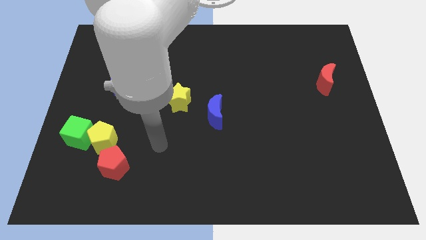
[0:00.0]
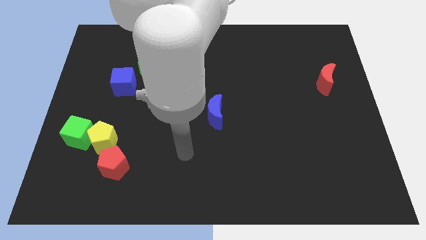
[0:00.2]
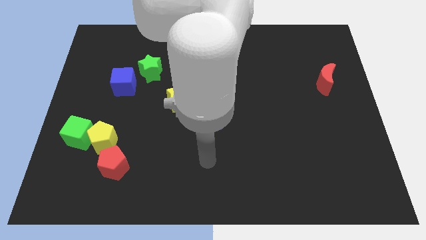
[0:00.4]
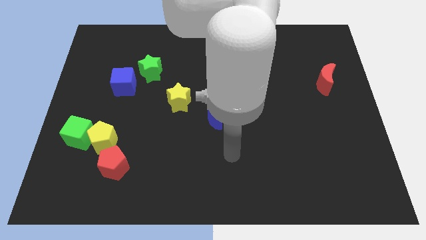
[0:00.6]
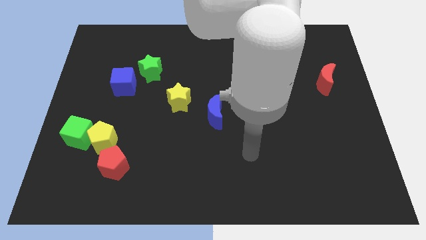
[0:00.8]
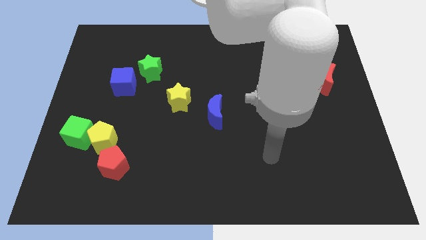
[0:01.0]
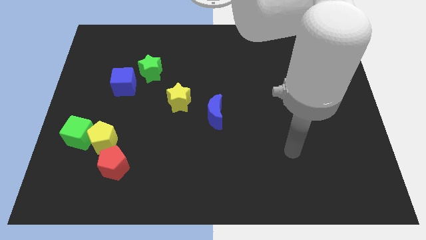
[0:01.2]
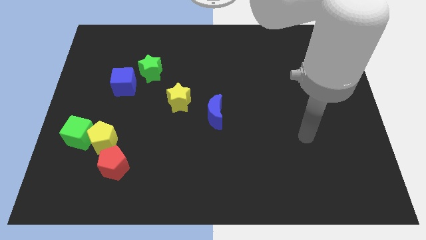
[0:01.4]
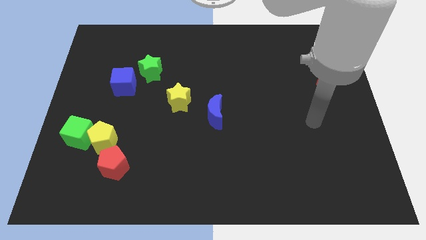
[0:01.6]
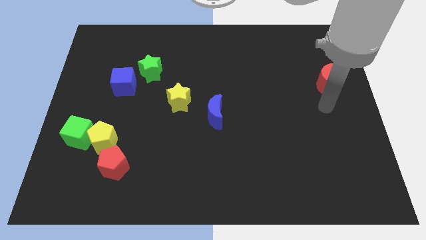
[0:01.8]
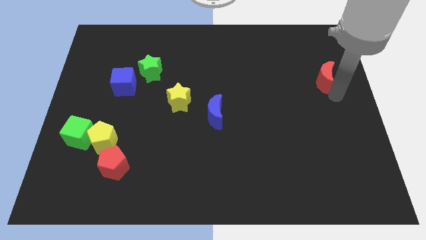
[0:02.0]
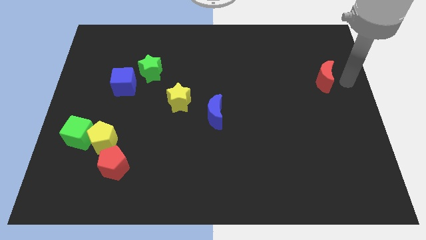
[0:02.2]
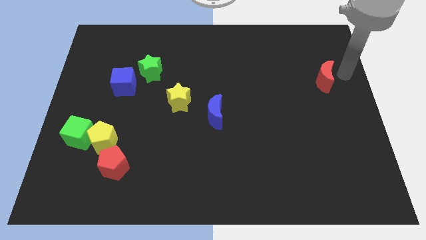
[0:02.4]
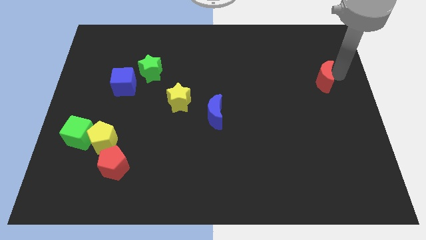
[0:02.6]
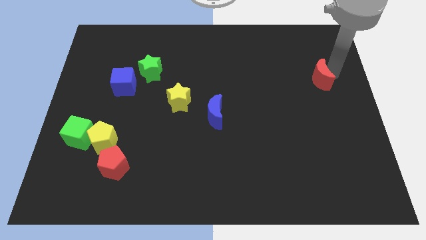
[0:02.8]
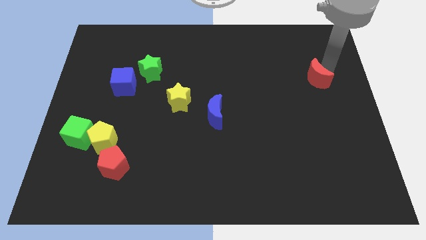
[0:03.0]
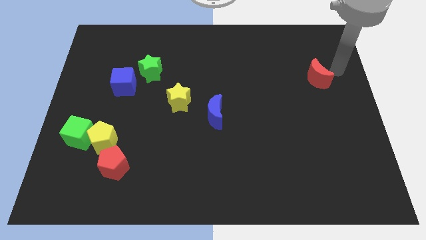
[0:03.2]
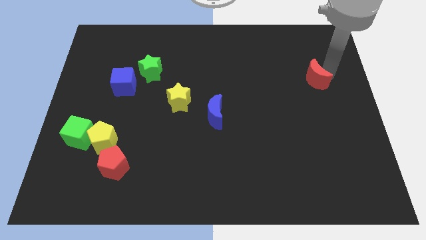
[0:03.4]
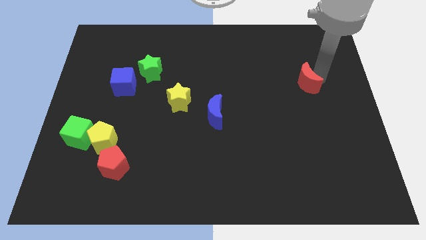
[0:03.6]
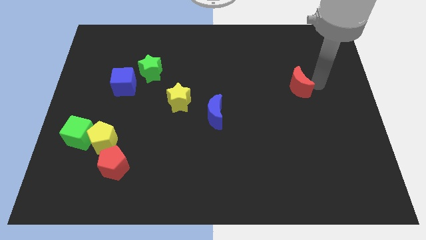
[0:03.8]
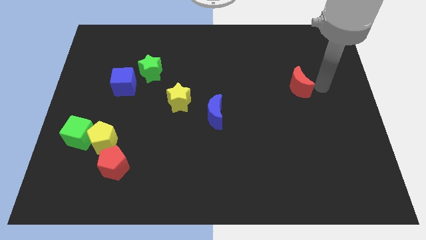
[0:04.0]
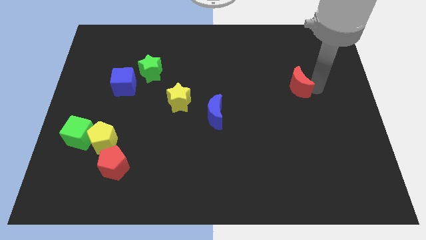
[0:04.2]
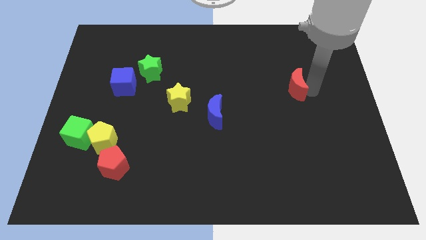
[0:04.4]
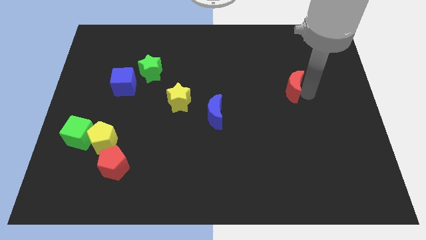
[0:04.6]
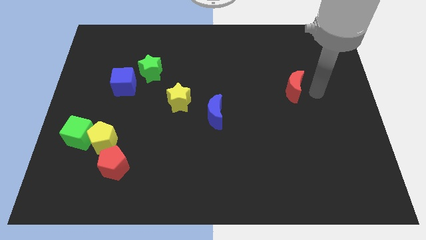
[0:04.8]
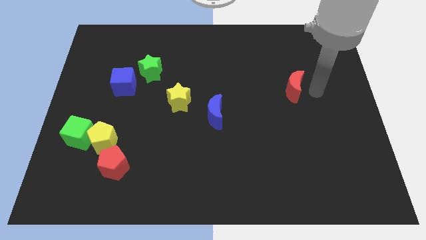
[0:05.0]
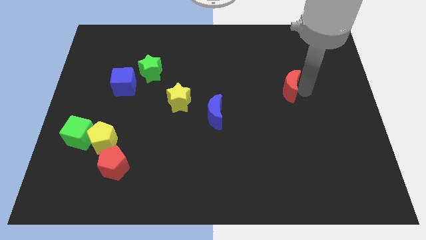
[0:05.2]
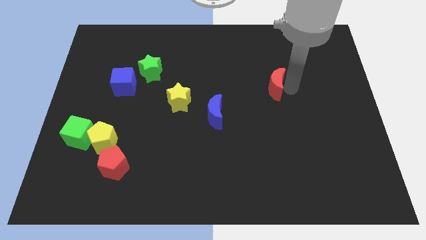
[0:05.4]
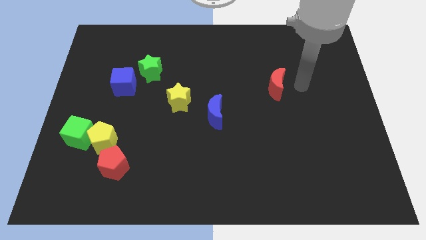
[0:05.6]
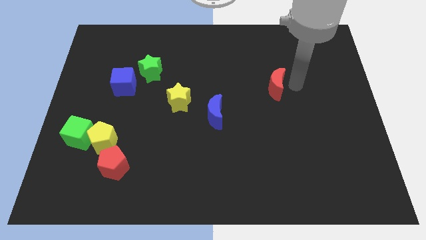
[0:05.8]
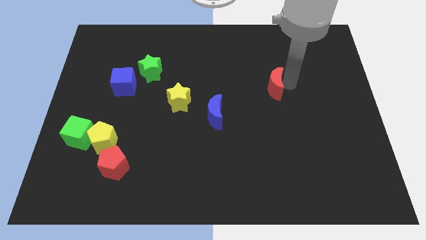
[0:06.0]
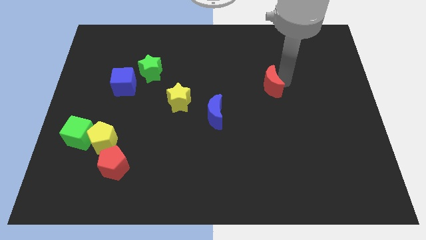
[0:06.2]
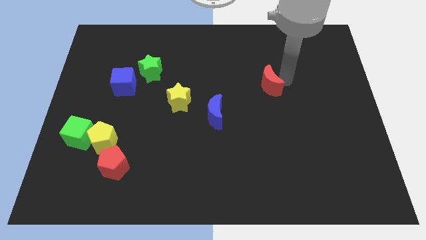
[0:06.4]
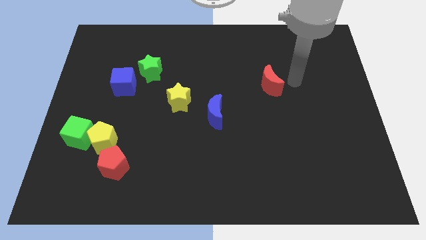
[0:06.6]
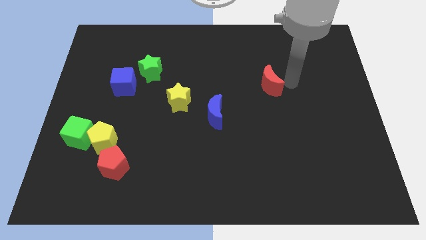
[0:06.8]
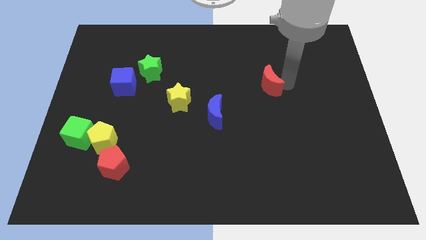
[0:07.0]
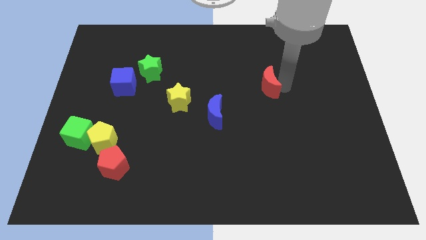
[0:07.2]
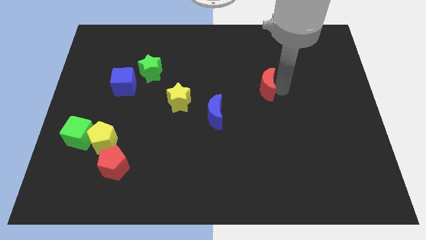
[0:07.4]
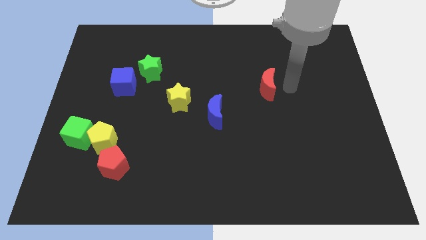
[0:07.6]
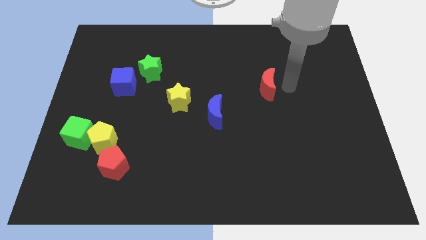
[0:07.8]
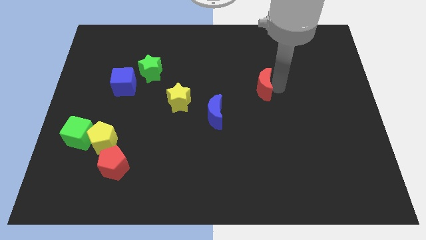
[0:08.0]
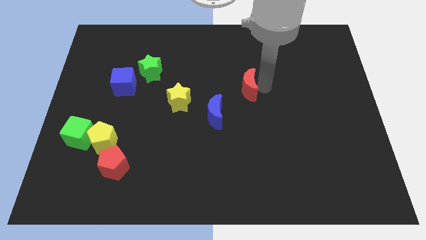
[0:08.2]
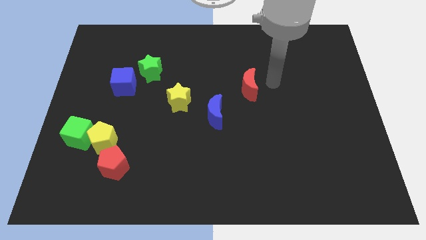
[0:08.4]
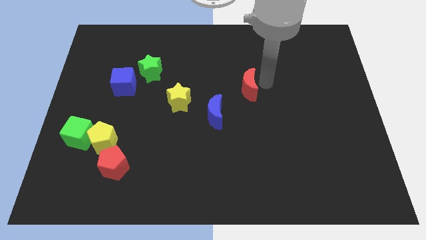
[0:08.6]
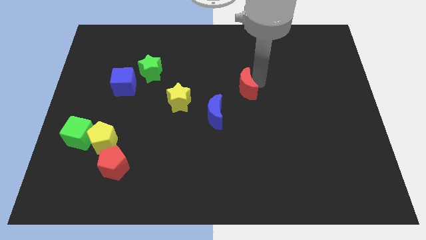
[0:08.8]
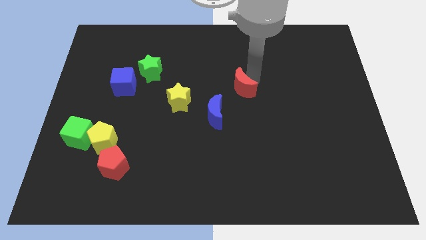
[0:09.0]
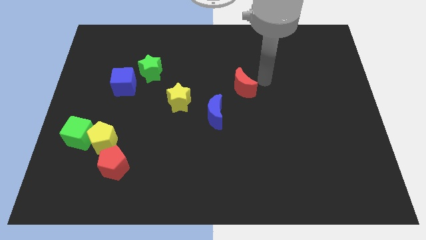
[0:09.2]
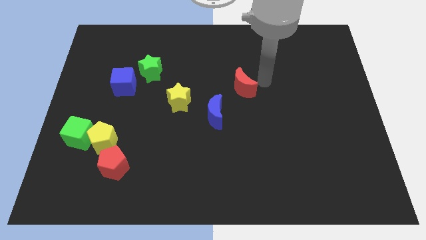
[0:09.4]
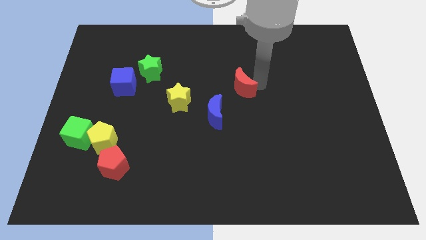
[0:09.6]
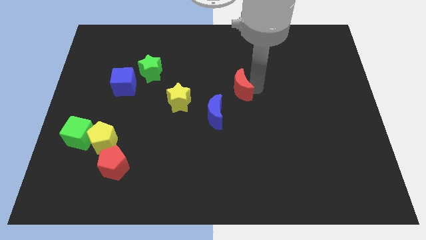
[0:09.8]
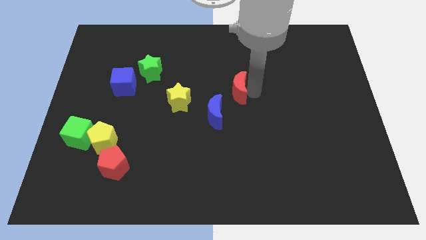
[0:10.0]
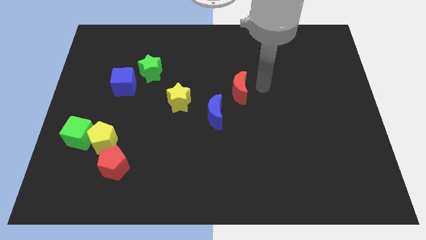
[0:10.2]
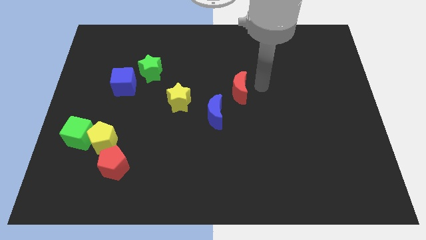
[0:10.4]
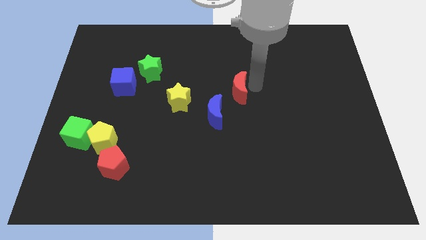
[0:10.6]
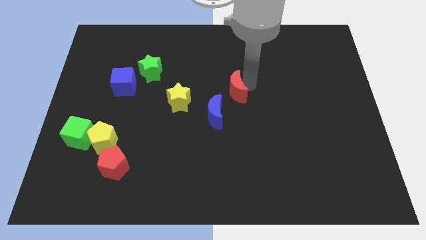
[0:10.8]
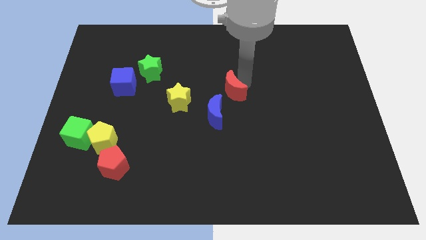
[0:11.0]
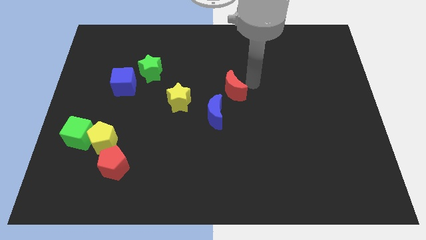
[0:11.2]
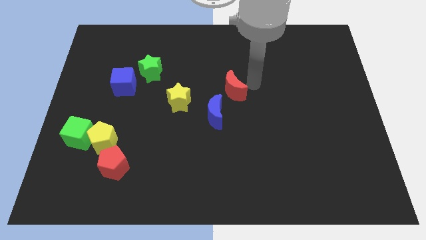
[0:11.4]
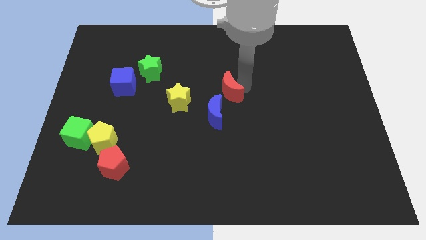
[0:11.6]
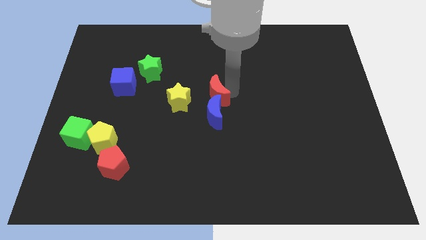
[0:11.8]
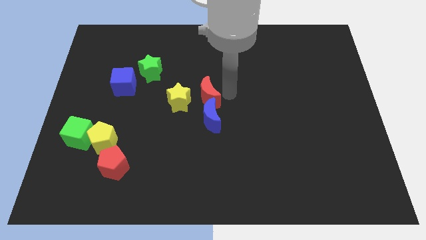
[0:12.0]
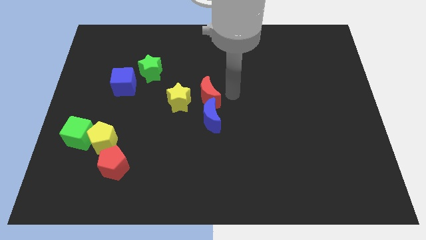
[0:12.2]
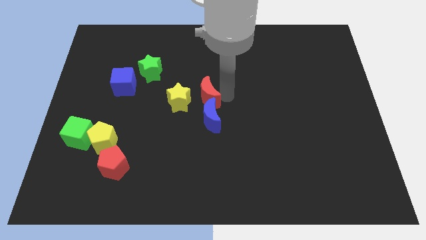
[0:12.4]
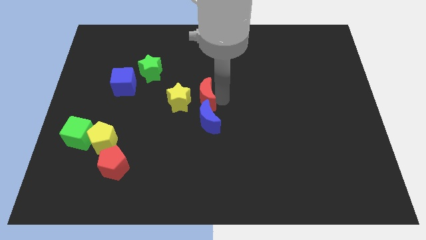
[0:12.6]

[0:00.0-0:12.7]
push the red moon to the yellow star

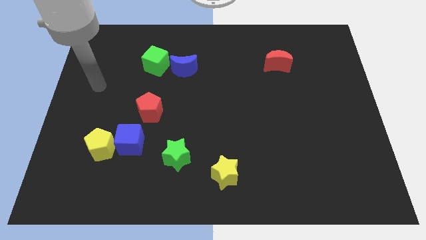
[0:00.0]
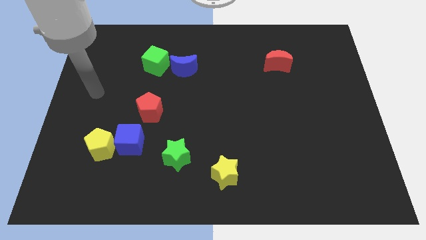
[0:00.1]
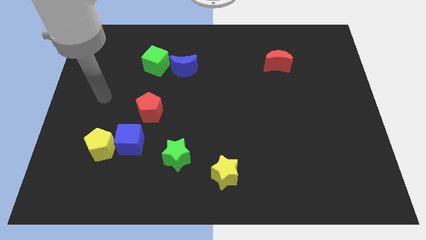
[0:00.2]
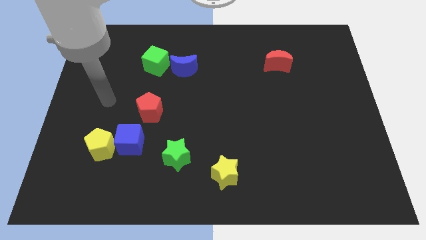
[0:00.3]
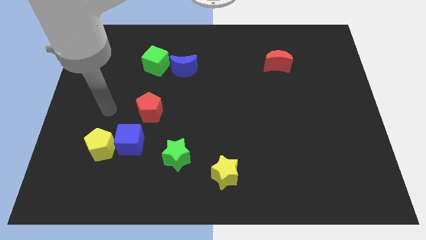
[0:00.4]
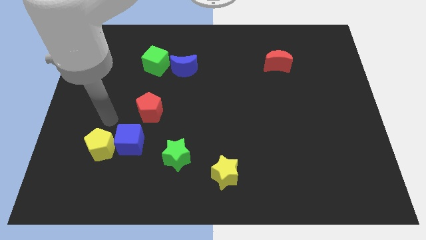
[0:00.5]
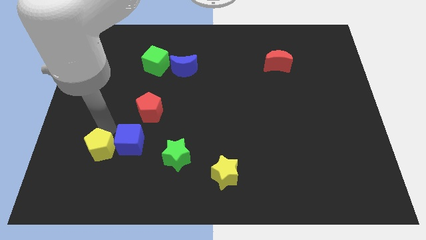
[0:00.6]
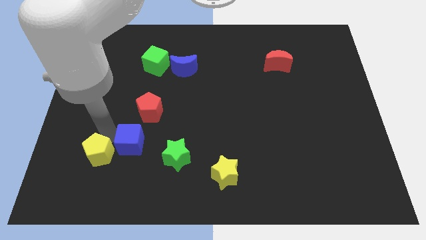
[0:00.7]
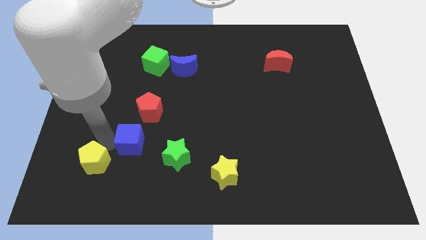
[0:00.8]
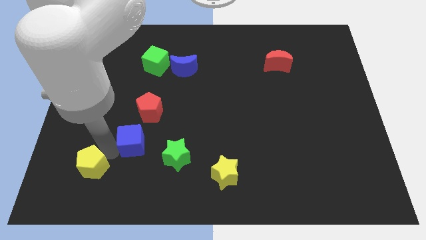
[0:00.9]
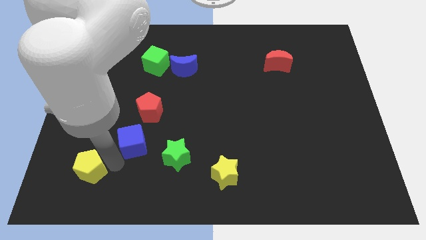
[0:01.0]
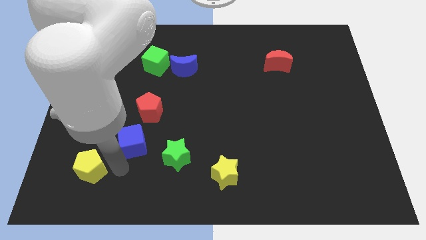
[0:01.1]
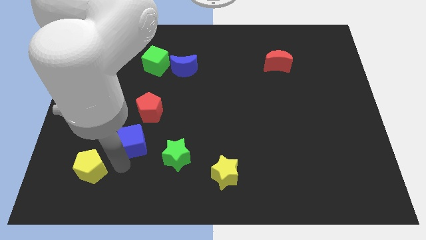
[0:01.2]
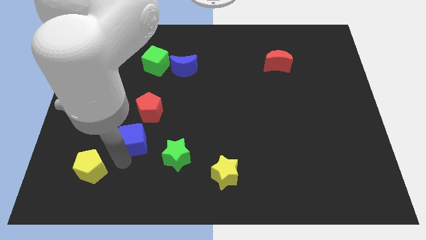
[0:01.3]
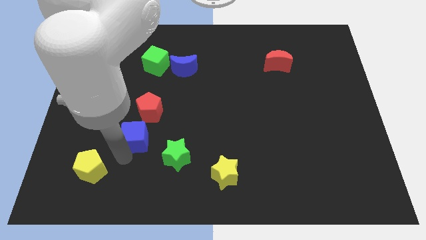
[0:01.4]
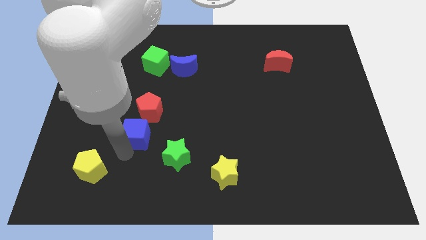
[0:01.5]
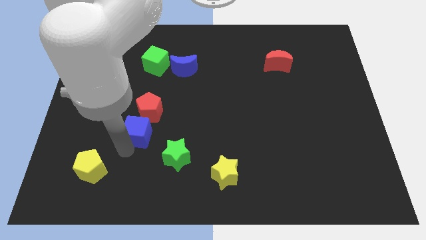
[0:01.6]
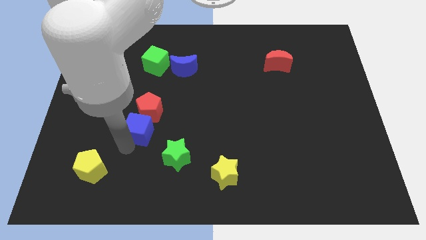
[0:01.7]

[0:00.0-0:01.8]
push the blue cube to the red pentagon
